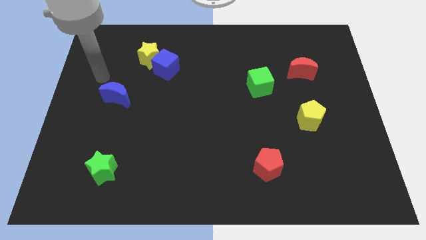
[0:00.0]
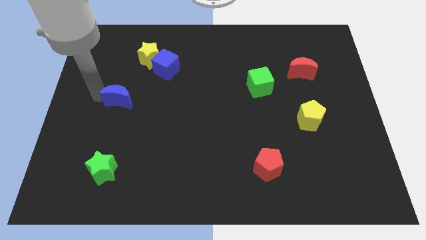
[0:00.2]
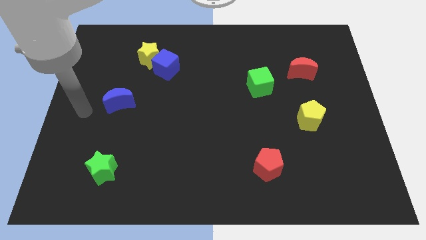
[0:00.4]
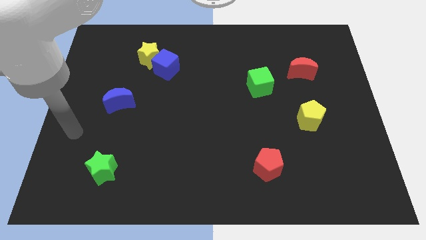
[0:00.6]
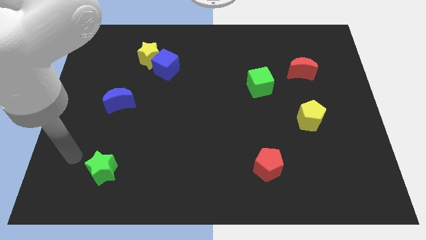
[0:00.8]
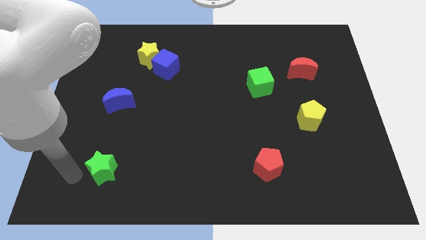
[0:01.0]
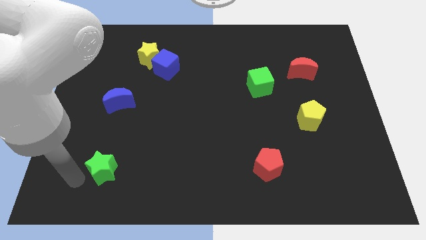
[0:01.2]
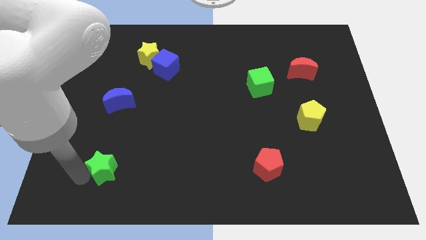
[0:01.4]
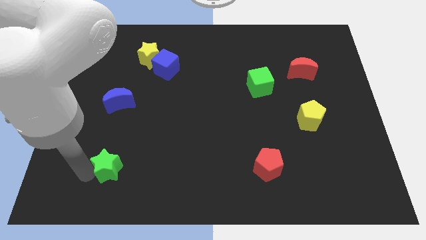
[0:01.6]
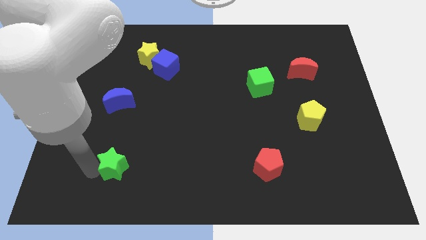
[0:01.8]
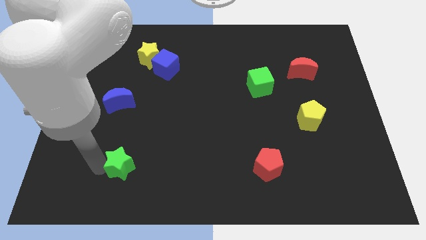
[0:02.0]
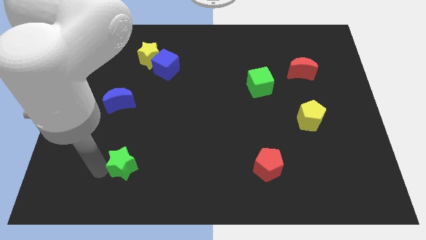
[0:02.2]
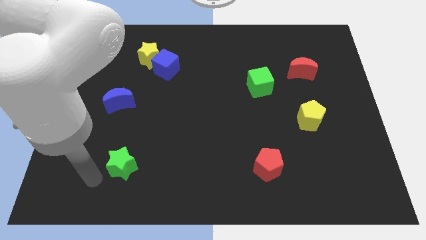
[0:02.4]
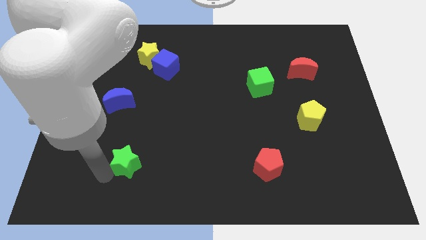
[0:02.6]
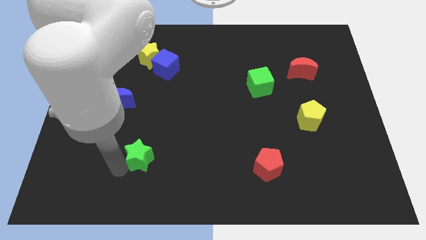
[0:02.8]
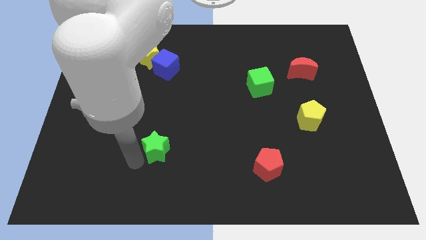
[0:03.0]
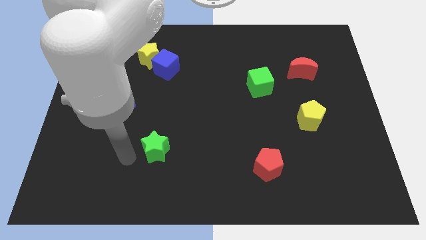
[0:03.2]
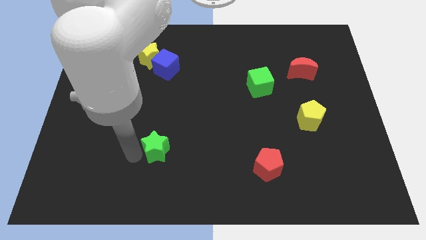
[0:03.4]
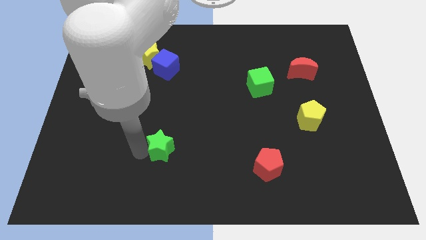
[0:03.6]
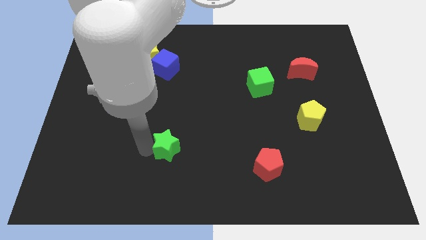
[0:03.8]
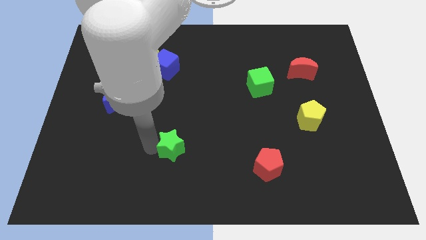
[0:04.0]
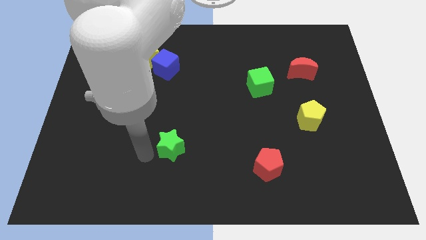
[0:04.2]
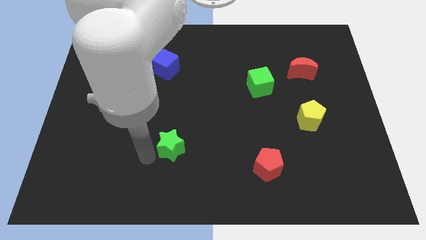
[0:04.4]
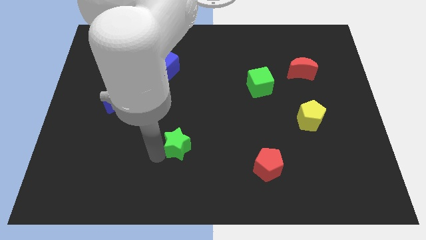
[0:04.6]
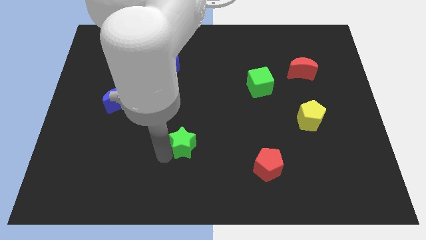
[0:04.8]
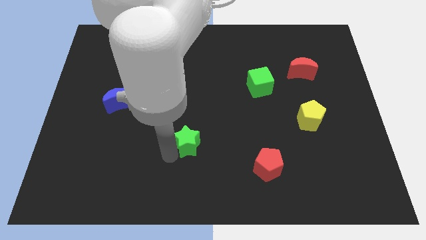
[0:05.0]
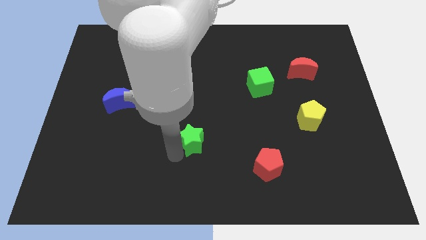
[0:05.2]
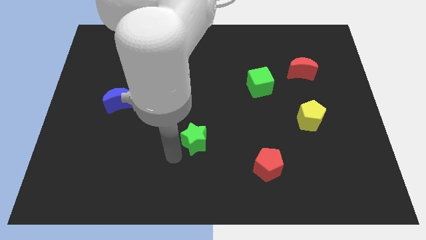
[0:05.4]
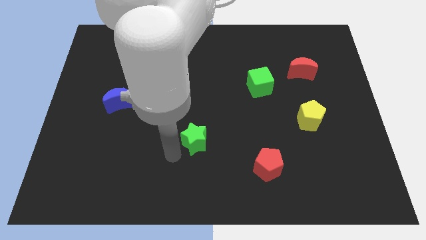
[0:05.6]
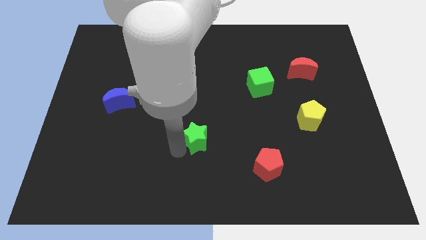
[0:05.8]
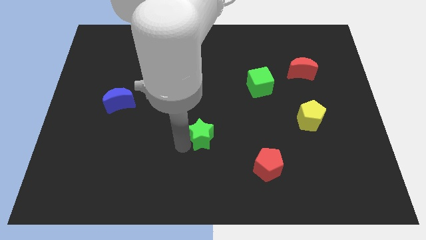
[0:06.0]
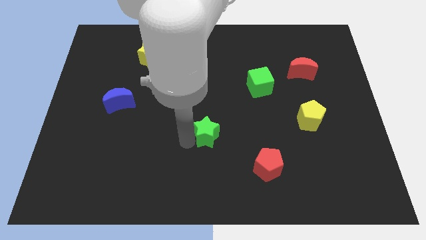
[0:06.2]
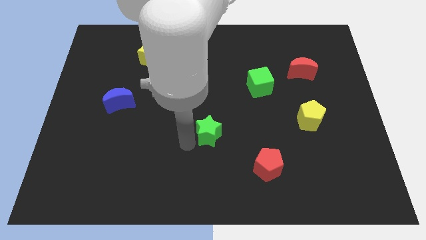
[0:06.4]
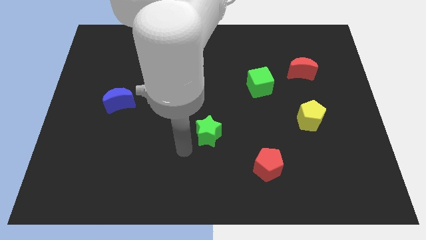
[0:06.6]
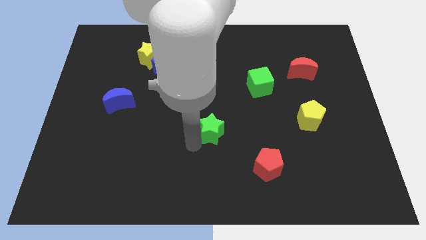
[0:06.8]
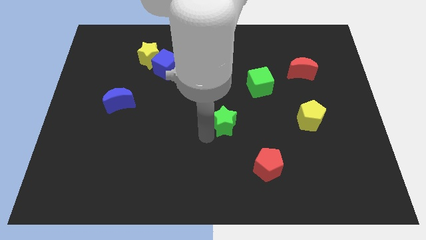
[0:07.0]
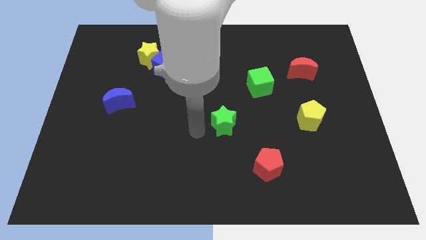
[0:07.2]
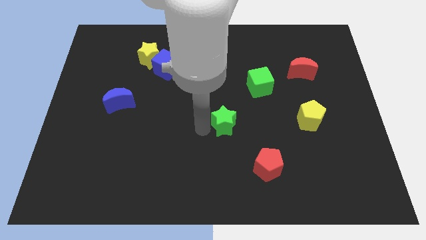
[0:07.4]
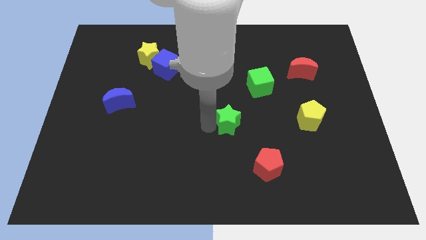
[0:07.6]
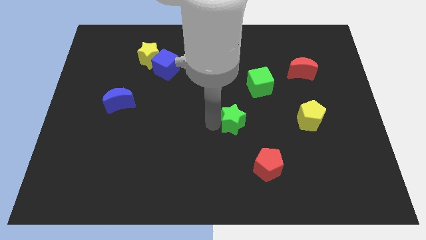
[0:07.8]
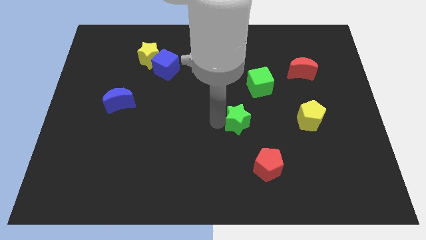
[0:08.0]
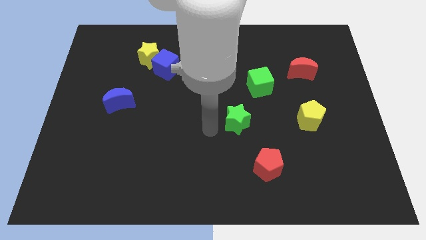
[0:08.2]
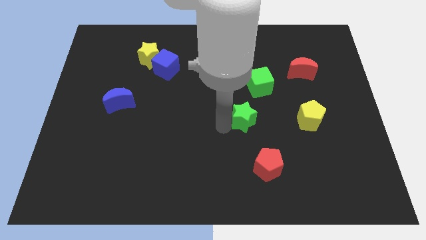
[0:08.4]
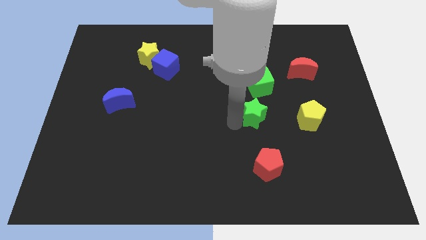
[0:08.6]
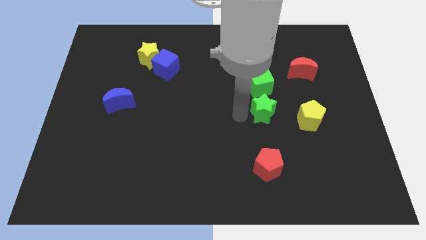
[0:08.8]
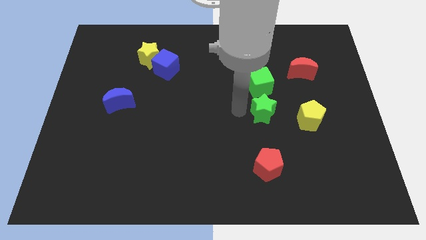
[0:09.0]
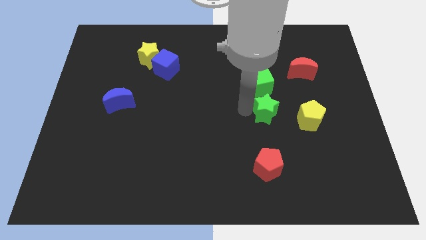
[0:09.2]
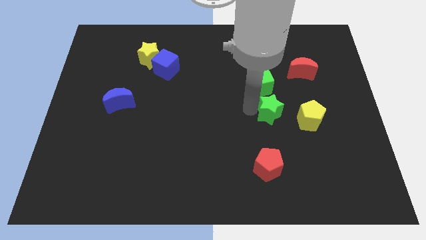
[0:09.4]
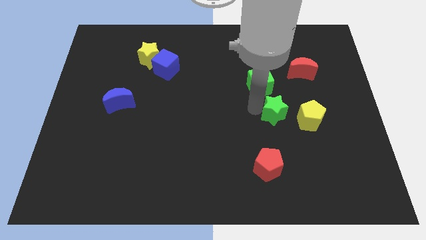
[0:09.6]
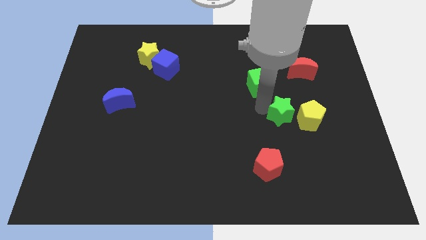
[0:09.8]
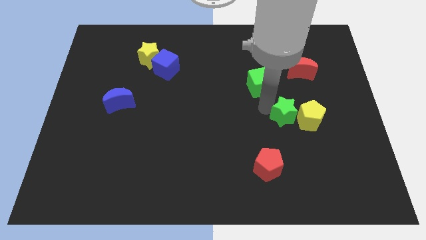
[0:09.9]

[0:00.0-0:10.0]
push the green star to the yellow pentagon

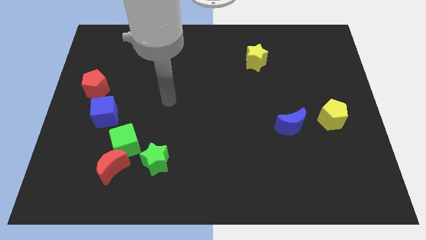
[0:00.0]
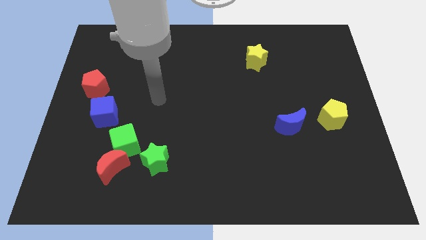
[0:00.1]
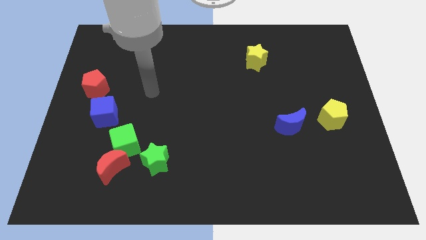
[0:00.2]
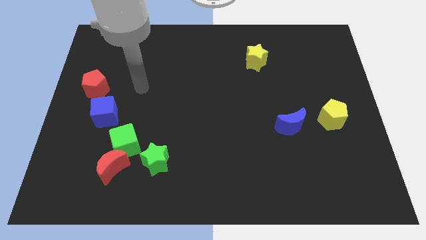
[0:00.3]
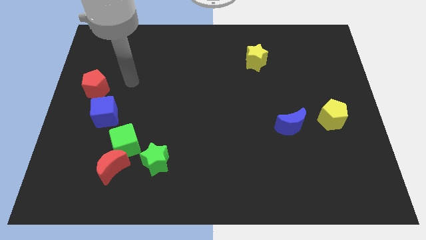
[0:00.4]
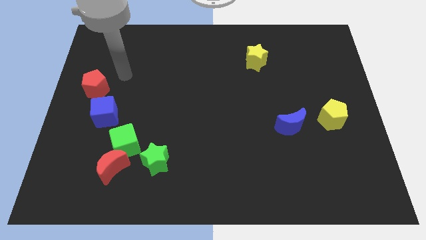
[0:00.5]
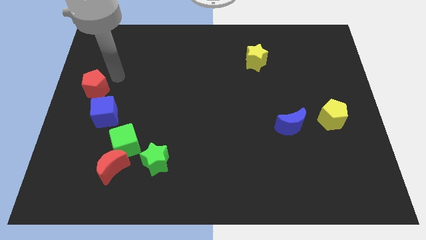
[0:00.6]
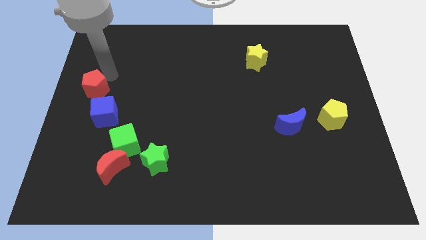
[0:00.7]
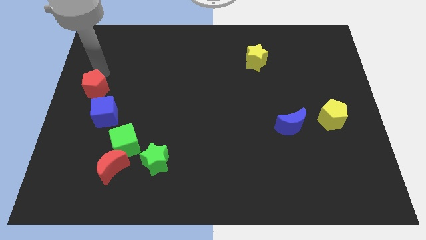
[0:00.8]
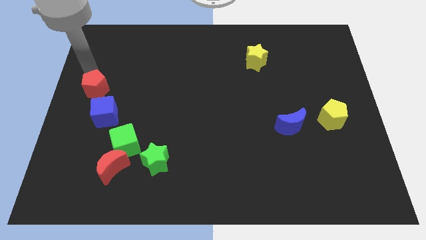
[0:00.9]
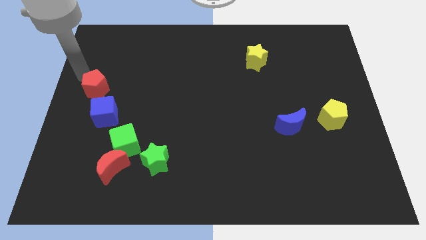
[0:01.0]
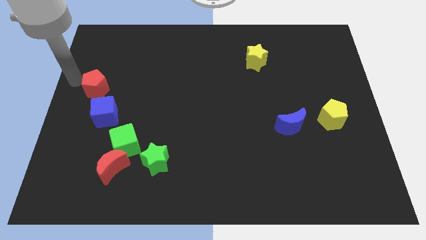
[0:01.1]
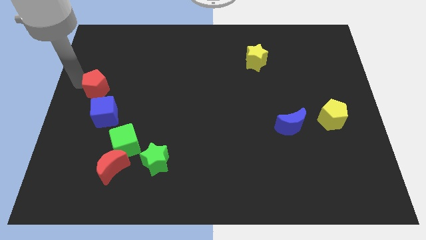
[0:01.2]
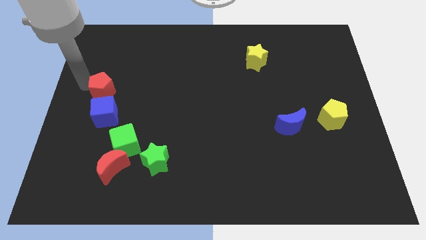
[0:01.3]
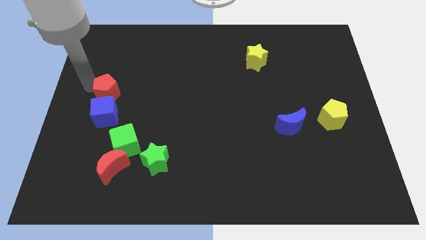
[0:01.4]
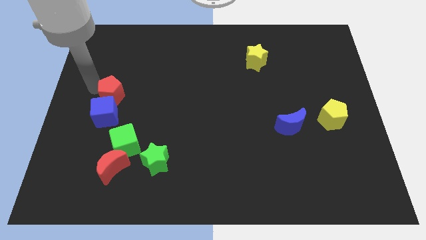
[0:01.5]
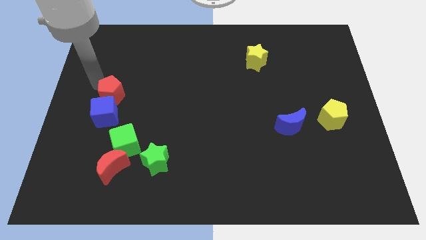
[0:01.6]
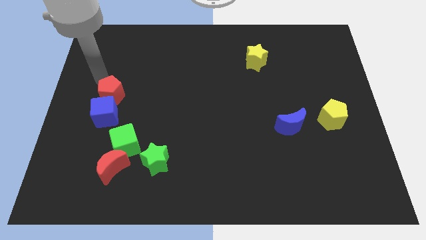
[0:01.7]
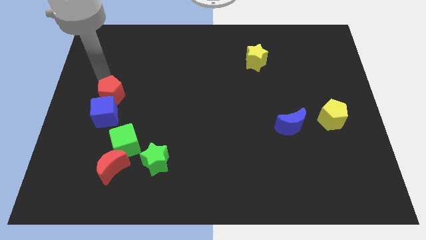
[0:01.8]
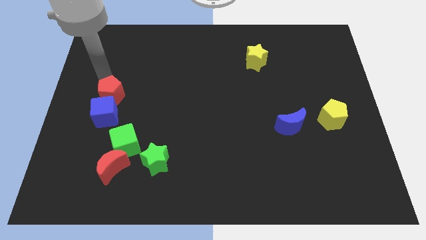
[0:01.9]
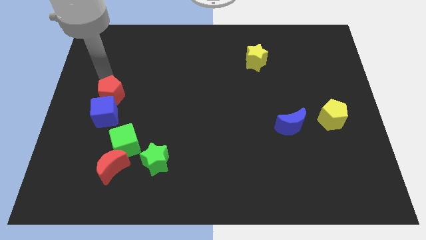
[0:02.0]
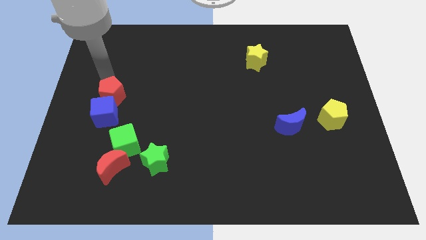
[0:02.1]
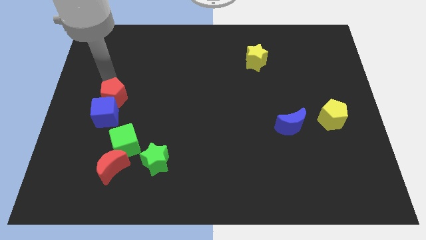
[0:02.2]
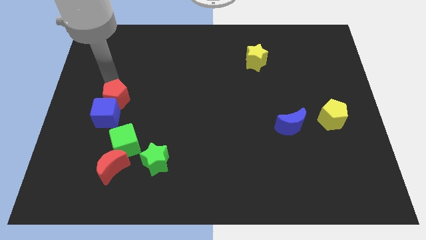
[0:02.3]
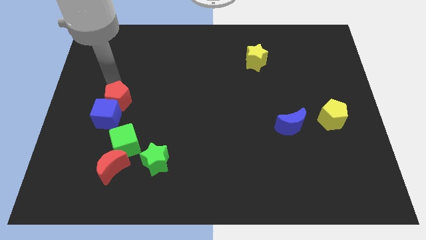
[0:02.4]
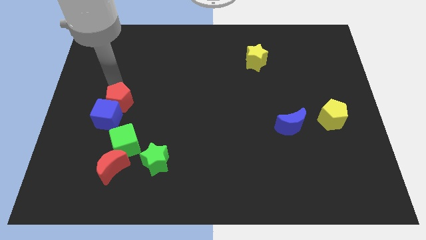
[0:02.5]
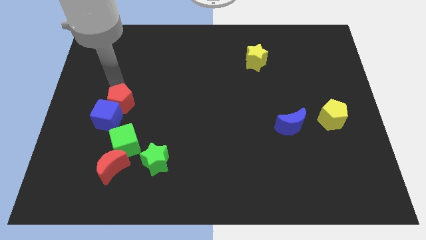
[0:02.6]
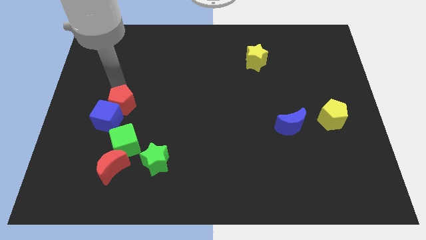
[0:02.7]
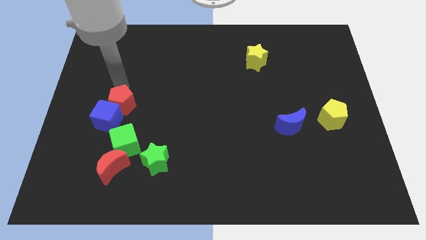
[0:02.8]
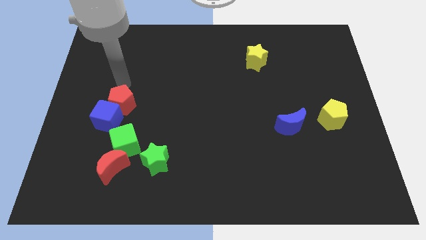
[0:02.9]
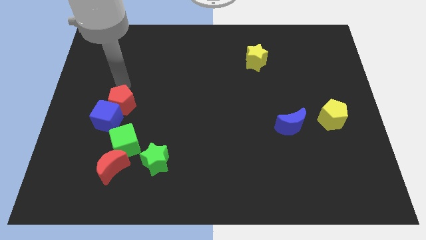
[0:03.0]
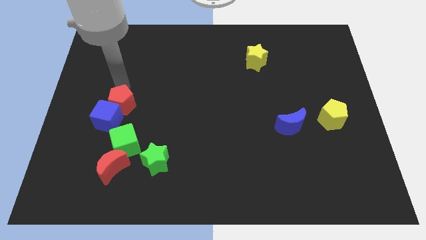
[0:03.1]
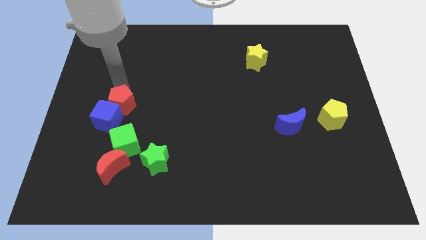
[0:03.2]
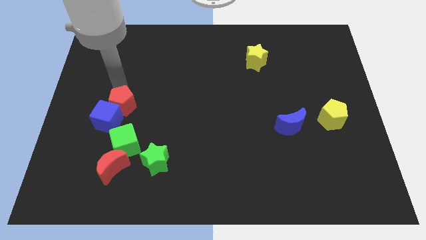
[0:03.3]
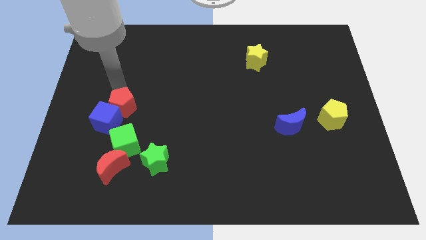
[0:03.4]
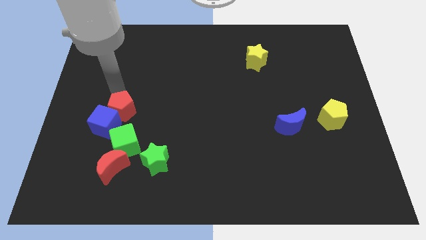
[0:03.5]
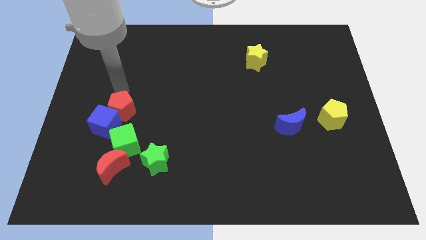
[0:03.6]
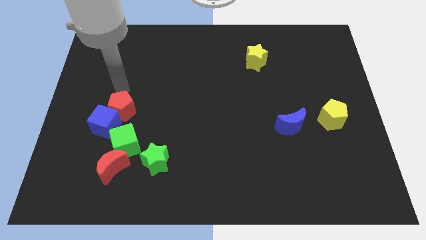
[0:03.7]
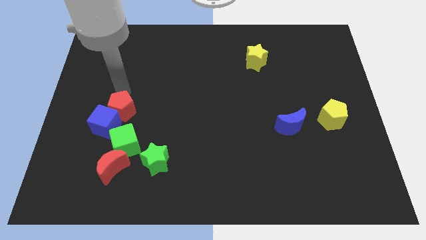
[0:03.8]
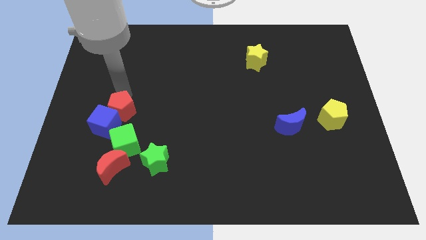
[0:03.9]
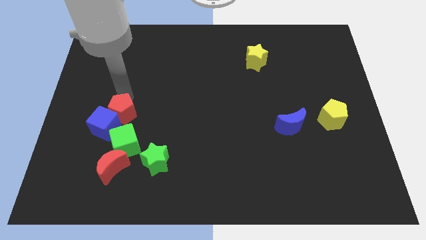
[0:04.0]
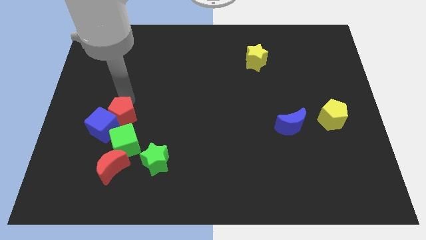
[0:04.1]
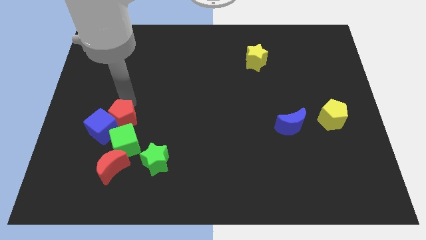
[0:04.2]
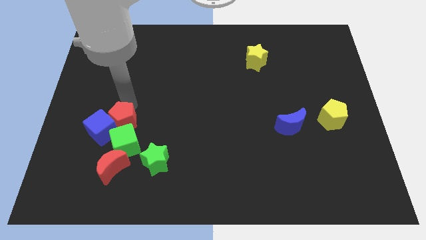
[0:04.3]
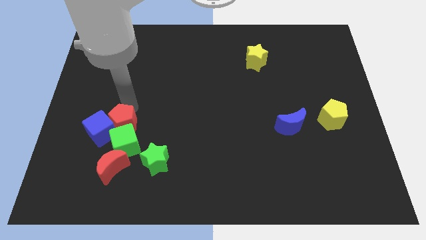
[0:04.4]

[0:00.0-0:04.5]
slide the red pentagon towards the green cube
